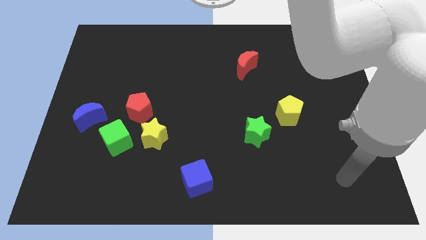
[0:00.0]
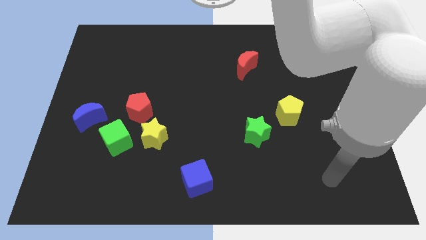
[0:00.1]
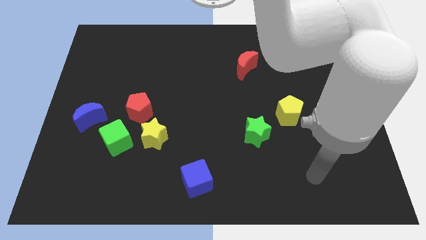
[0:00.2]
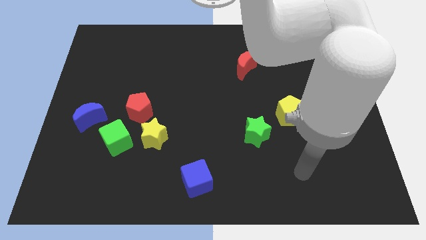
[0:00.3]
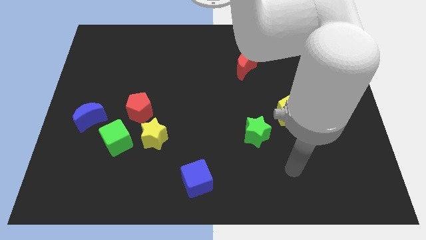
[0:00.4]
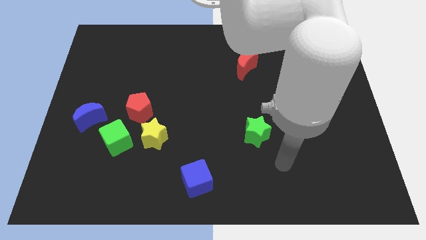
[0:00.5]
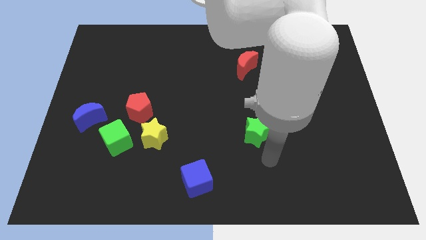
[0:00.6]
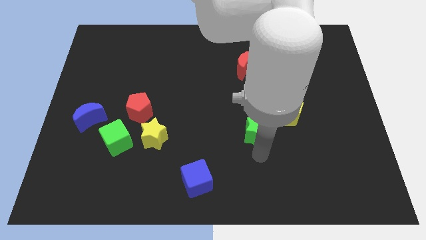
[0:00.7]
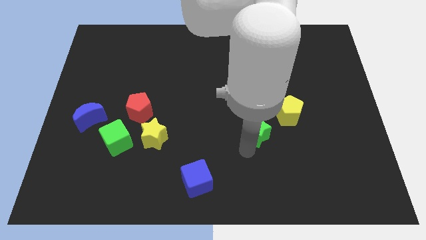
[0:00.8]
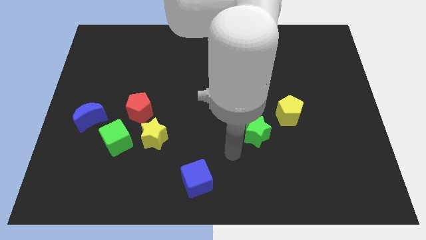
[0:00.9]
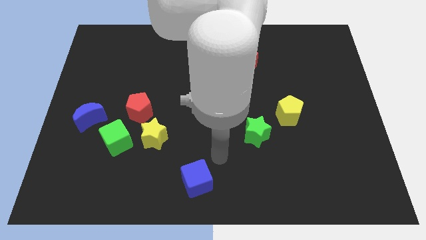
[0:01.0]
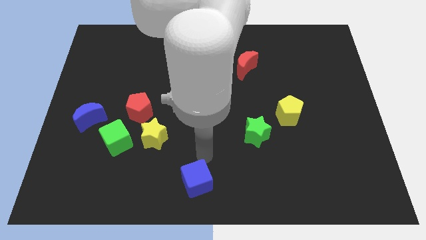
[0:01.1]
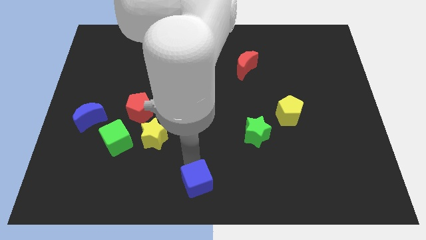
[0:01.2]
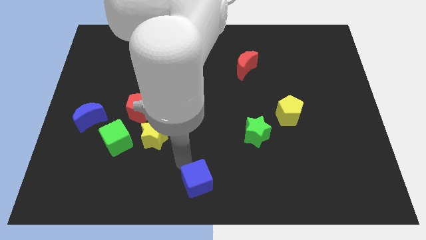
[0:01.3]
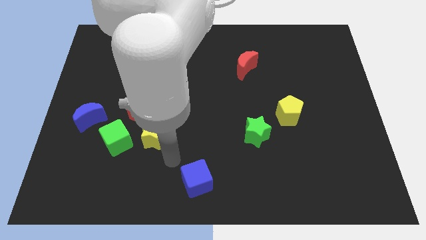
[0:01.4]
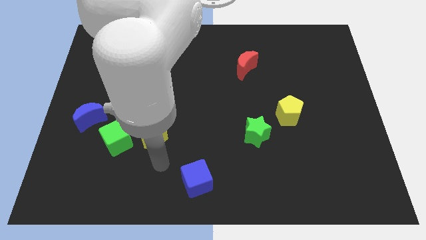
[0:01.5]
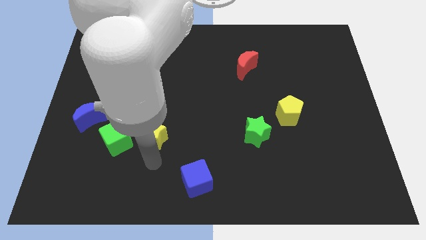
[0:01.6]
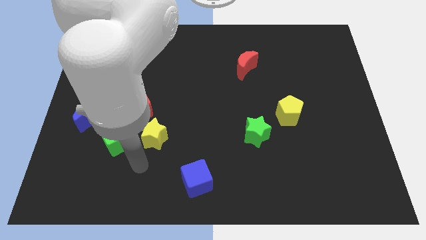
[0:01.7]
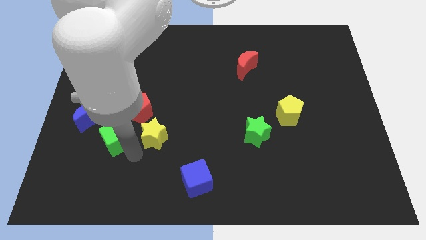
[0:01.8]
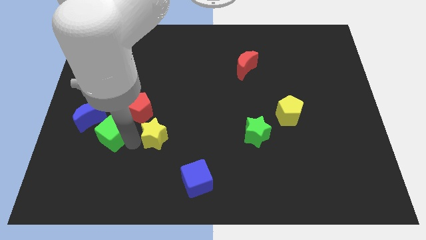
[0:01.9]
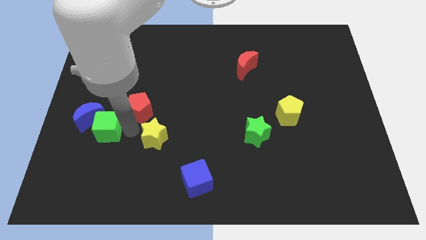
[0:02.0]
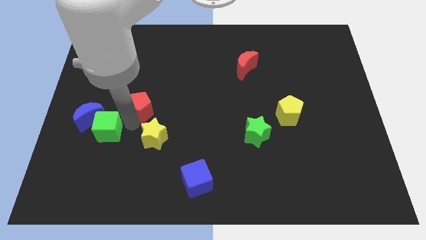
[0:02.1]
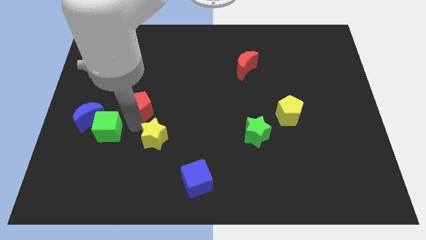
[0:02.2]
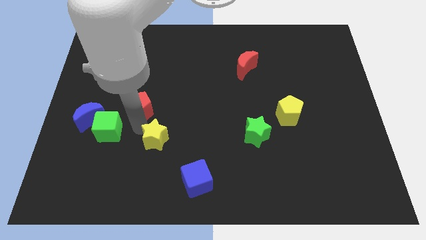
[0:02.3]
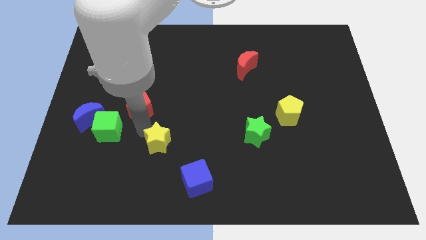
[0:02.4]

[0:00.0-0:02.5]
separate the yellow star from the green cube and red pentagon

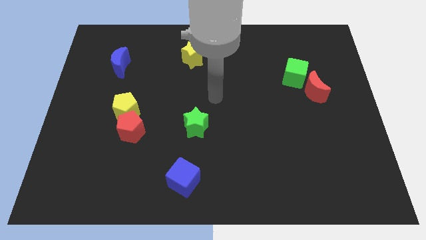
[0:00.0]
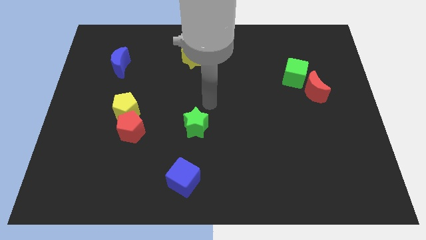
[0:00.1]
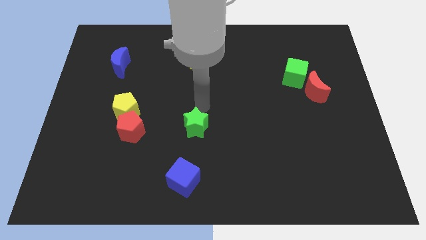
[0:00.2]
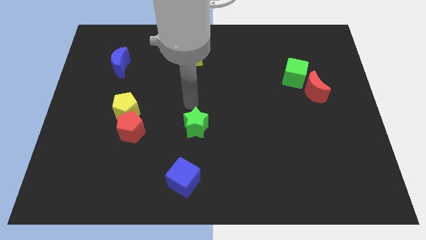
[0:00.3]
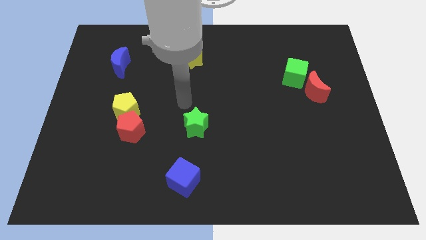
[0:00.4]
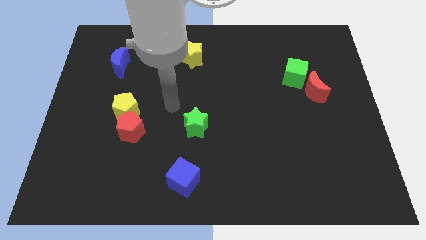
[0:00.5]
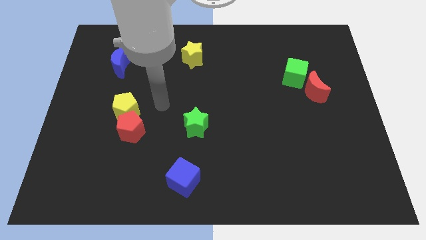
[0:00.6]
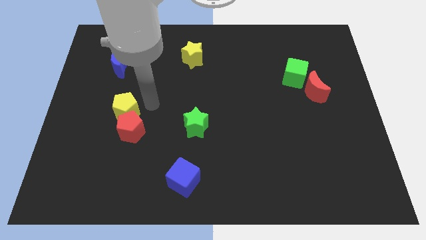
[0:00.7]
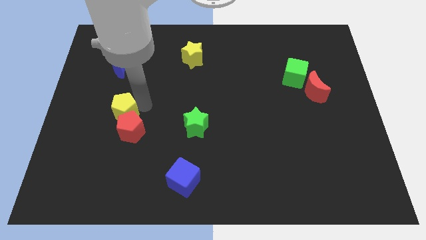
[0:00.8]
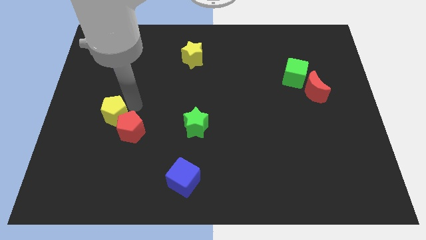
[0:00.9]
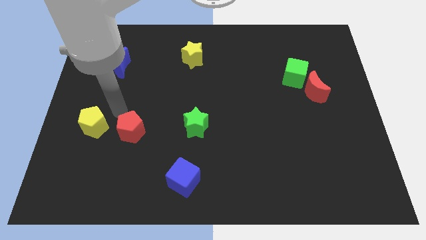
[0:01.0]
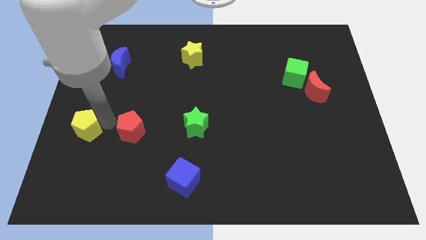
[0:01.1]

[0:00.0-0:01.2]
separate the red pentagon from the yellow pentagon

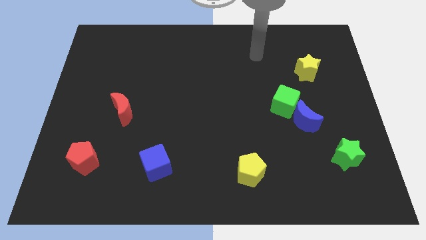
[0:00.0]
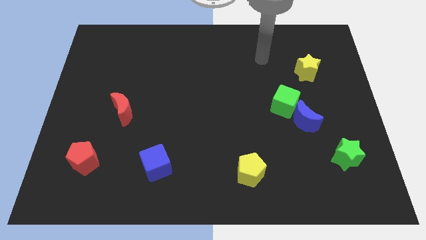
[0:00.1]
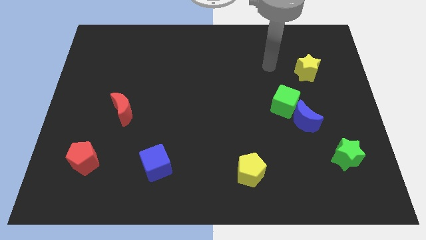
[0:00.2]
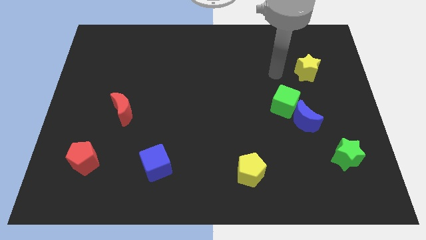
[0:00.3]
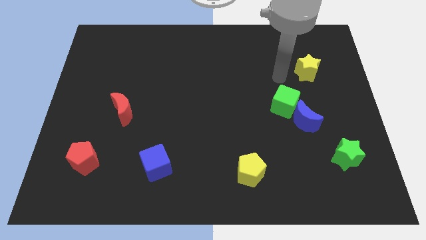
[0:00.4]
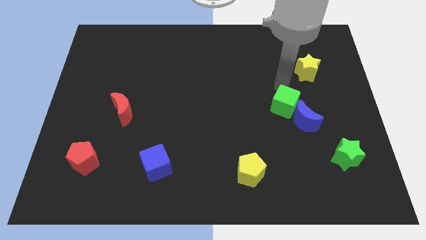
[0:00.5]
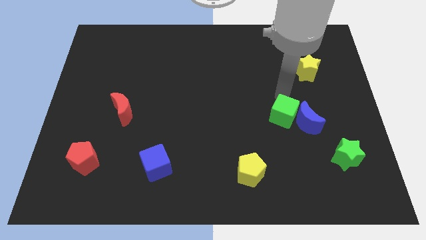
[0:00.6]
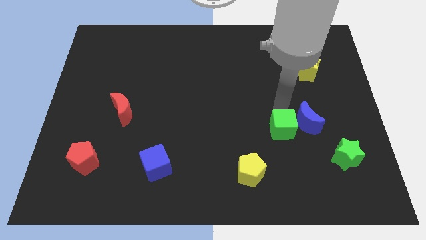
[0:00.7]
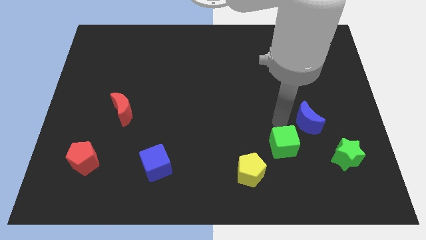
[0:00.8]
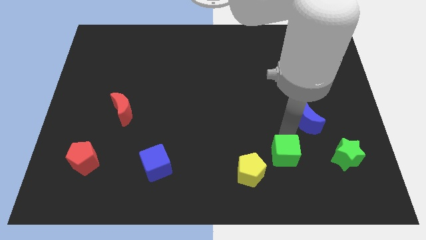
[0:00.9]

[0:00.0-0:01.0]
separate the blue moon from the green cube

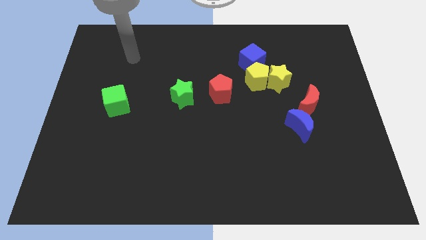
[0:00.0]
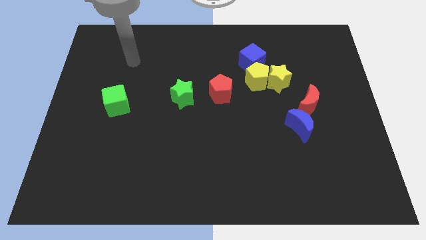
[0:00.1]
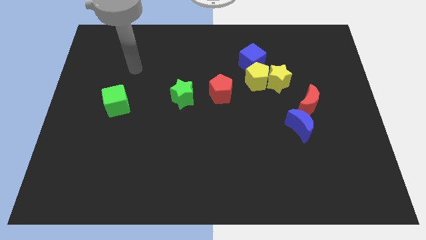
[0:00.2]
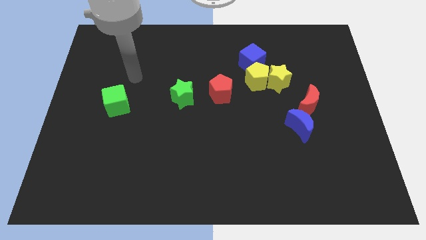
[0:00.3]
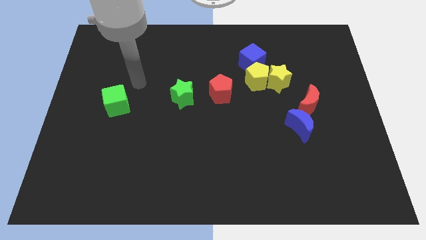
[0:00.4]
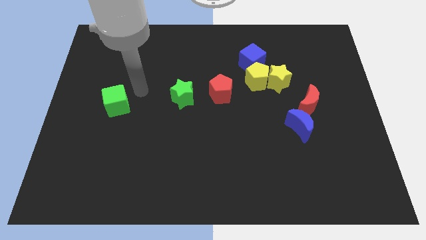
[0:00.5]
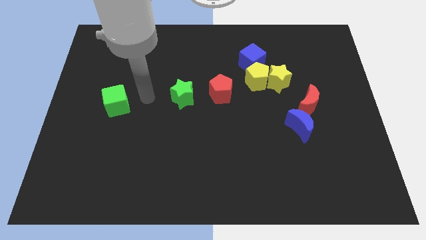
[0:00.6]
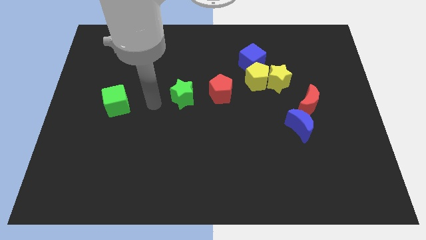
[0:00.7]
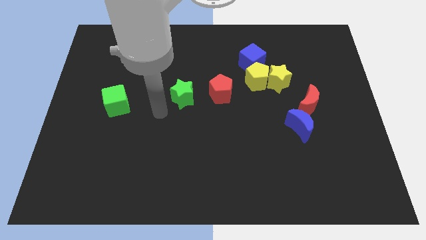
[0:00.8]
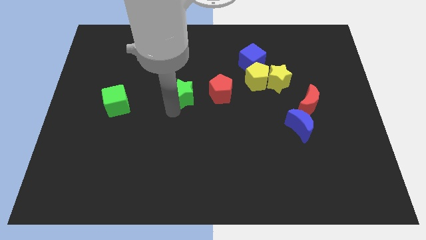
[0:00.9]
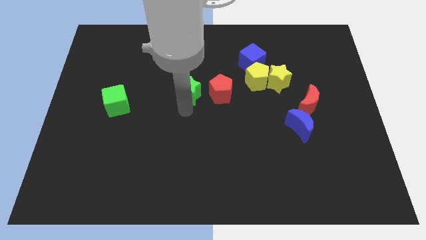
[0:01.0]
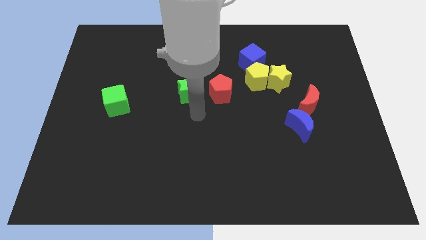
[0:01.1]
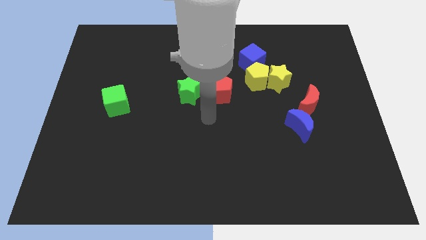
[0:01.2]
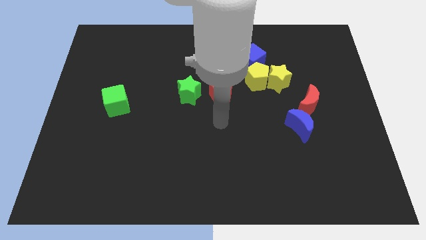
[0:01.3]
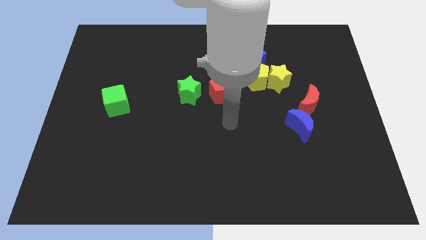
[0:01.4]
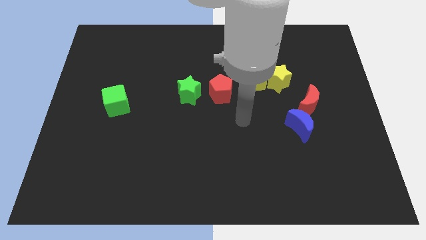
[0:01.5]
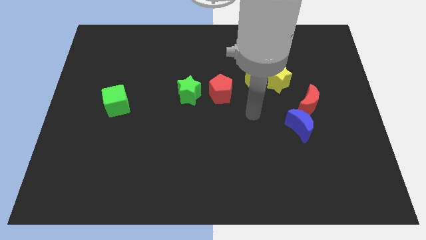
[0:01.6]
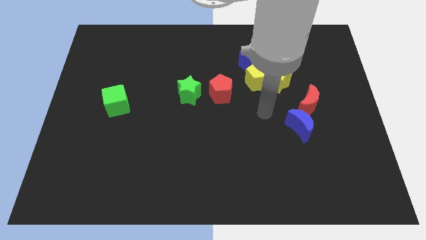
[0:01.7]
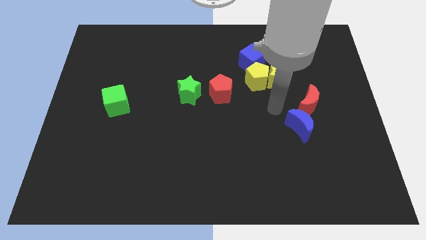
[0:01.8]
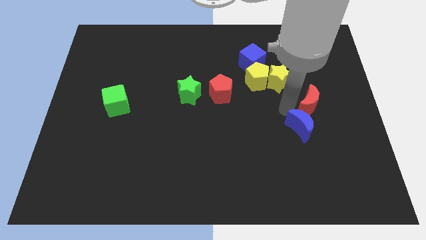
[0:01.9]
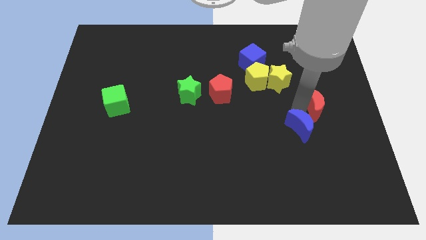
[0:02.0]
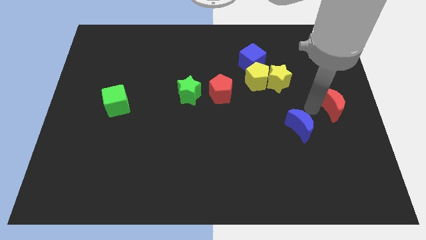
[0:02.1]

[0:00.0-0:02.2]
separate the blue moon from the red moon

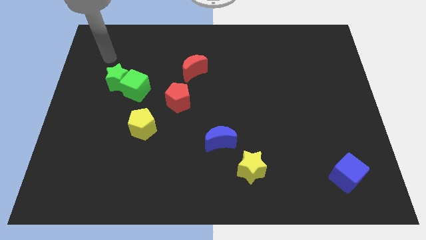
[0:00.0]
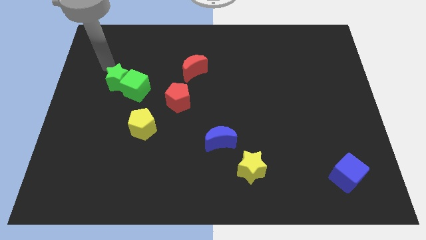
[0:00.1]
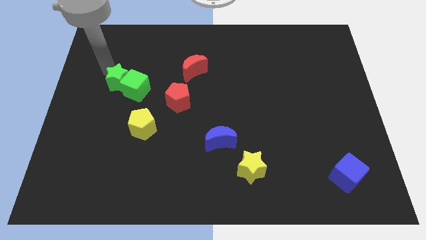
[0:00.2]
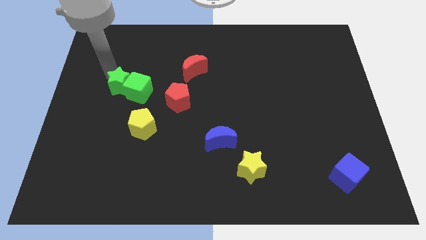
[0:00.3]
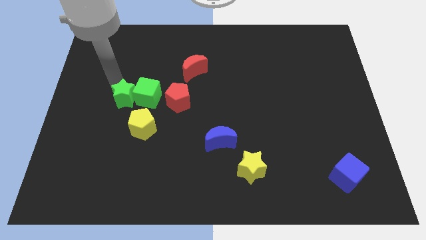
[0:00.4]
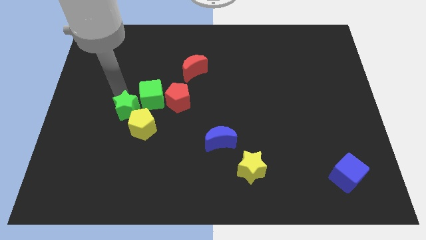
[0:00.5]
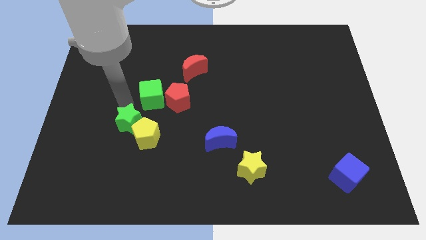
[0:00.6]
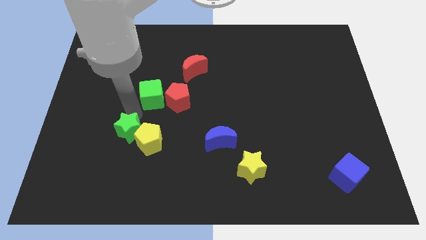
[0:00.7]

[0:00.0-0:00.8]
pull the green cube apart from the green star

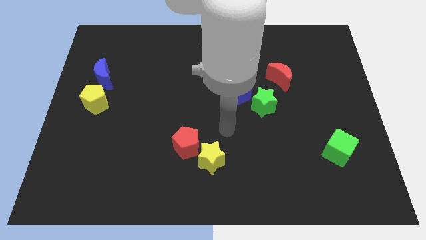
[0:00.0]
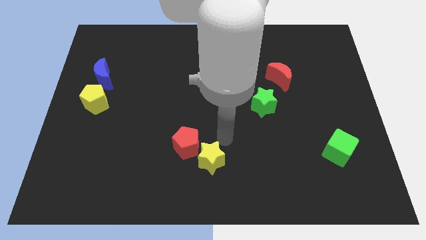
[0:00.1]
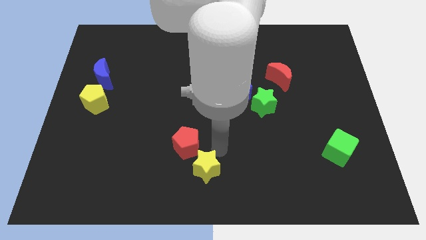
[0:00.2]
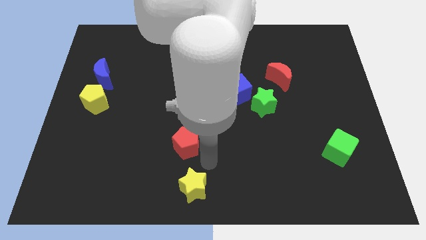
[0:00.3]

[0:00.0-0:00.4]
move the red pentagon away from the yellow star

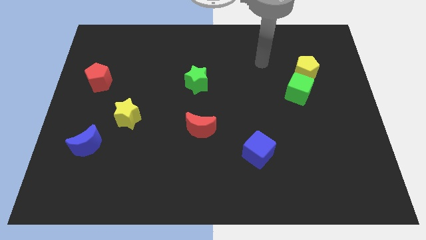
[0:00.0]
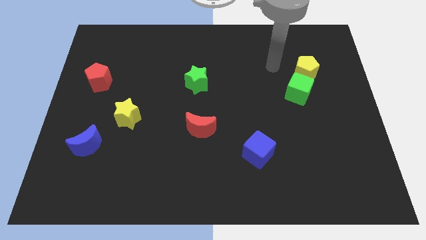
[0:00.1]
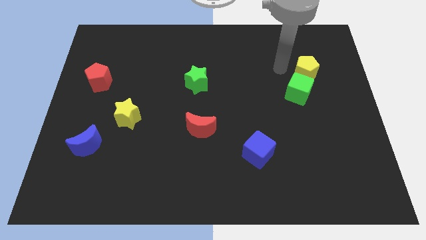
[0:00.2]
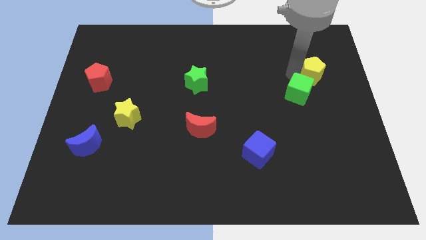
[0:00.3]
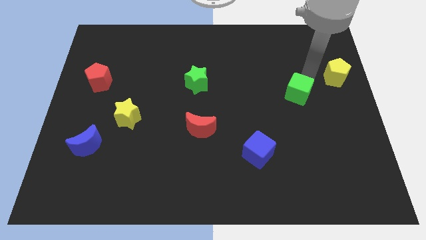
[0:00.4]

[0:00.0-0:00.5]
separate the green cube from the yellow pentagon

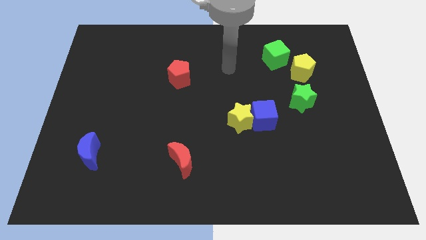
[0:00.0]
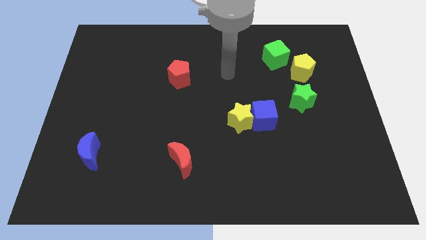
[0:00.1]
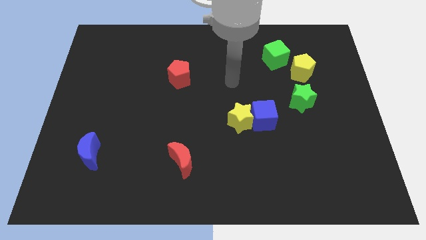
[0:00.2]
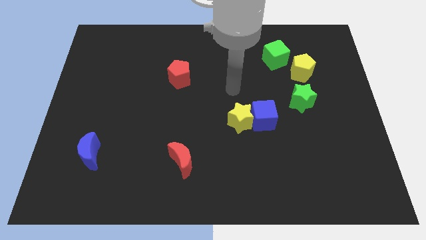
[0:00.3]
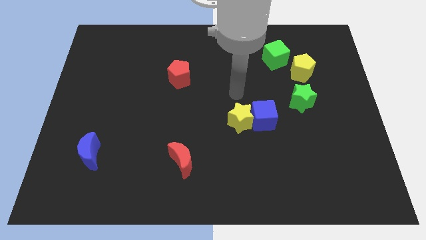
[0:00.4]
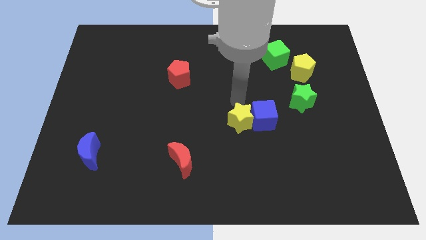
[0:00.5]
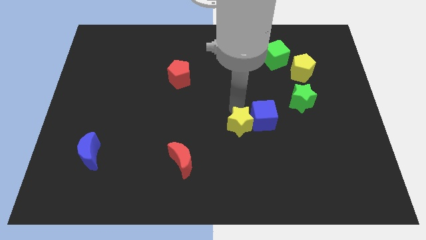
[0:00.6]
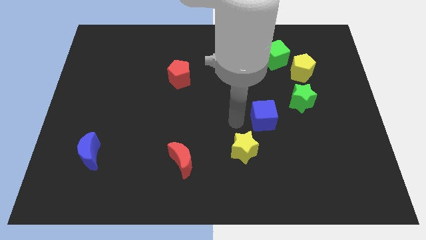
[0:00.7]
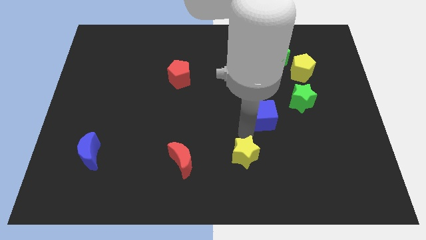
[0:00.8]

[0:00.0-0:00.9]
separate the blue cube from the yellow star
